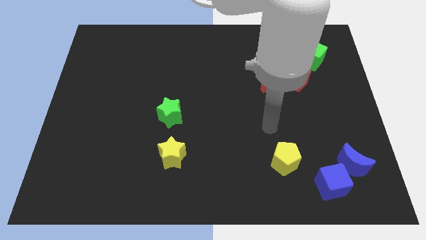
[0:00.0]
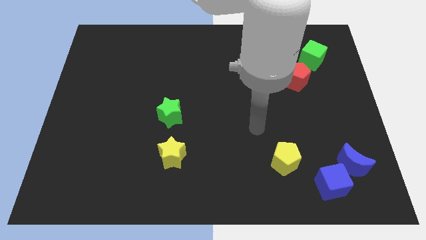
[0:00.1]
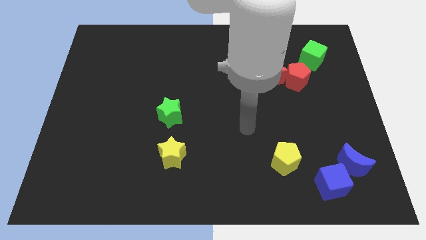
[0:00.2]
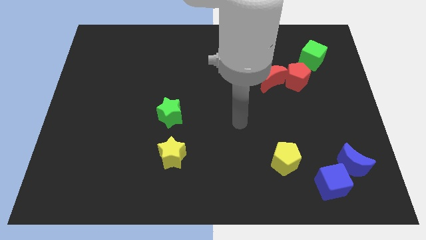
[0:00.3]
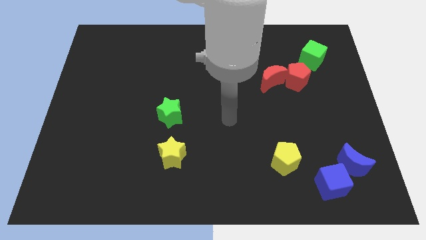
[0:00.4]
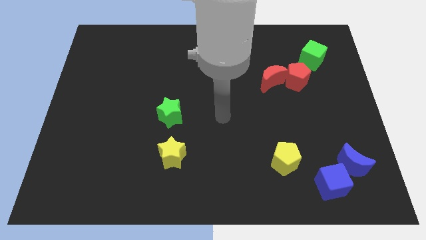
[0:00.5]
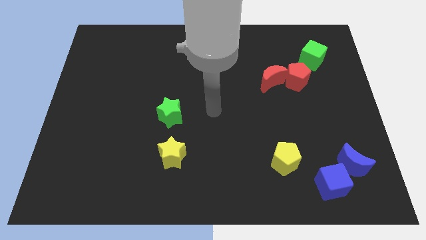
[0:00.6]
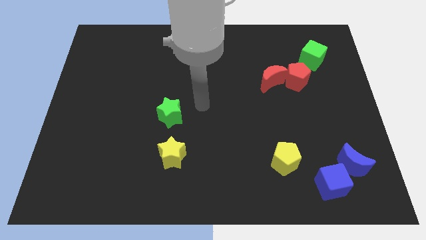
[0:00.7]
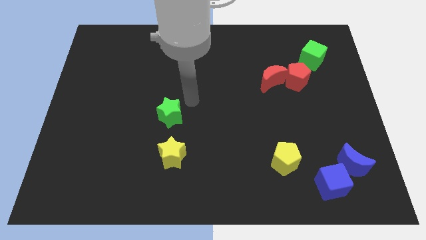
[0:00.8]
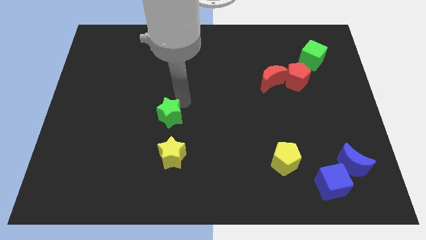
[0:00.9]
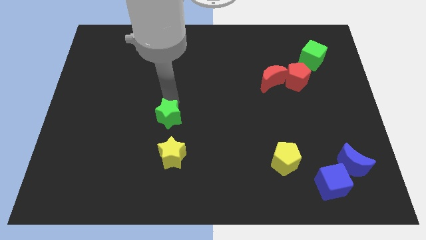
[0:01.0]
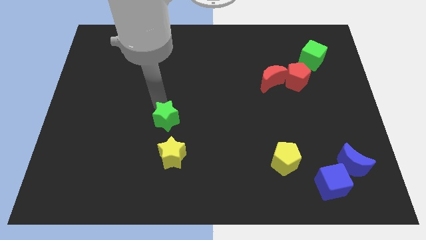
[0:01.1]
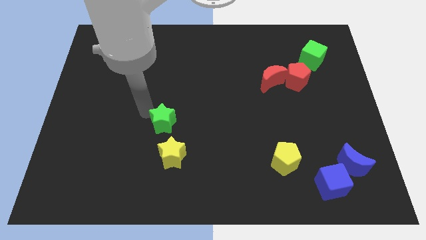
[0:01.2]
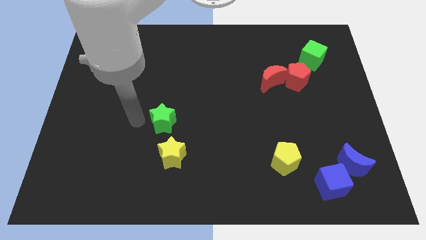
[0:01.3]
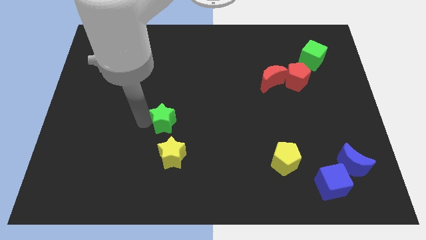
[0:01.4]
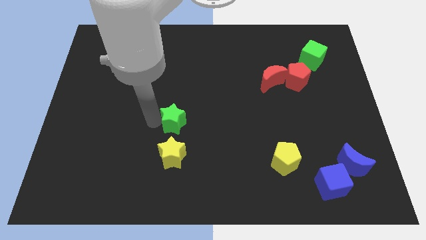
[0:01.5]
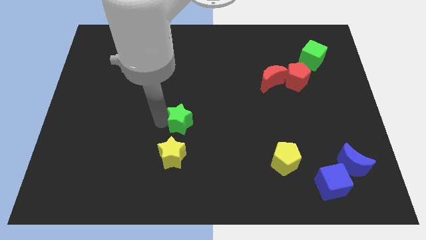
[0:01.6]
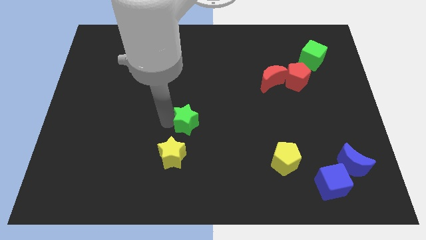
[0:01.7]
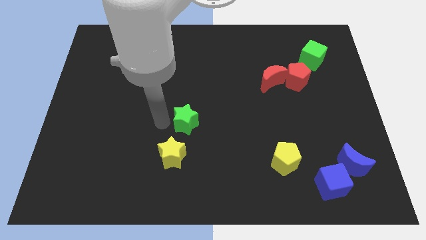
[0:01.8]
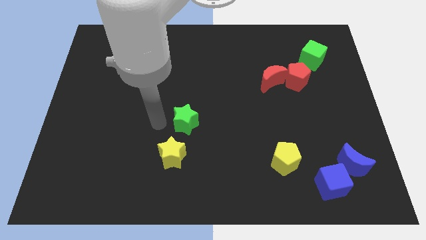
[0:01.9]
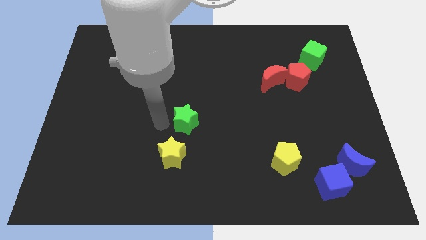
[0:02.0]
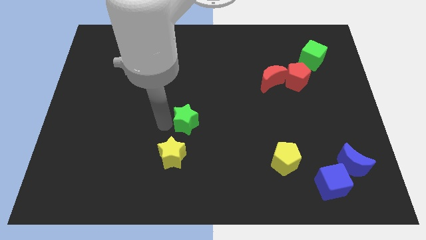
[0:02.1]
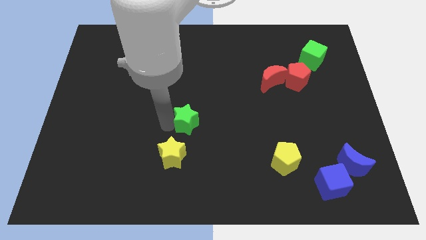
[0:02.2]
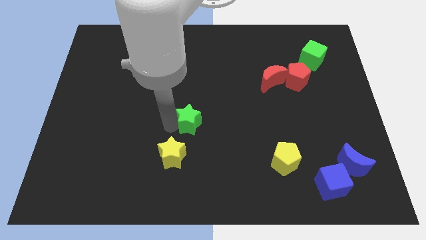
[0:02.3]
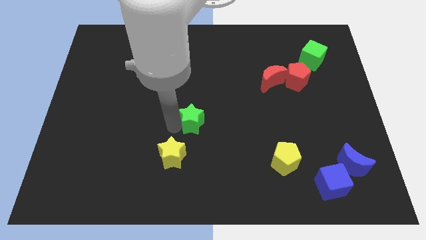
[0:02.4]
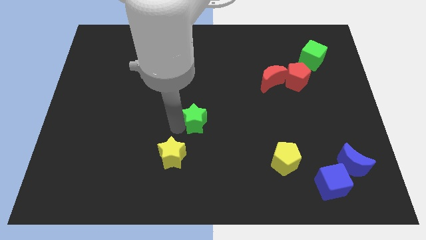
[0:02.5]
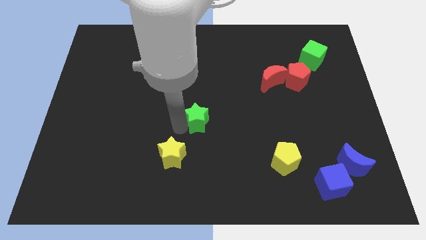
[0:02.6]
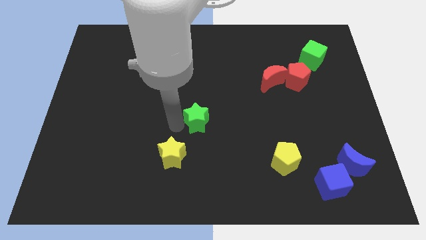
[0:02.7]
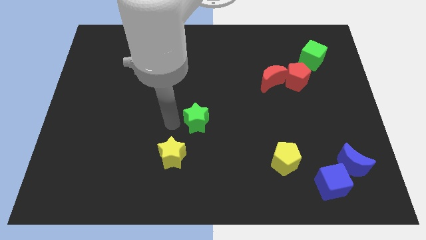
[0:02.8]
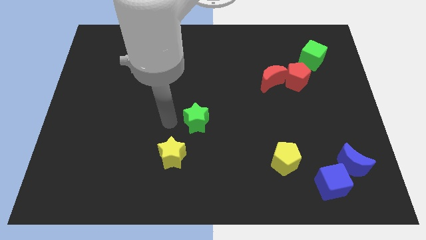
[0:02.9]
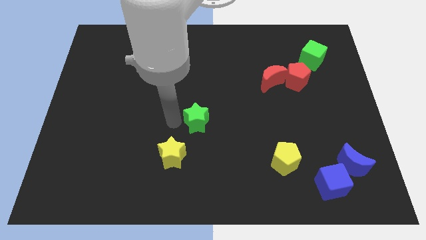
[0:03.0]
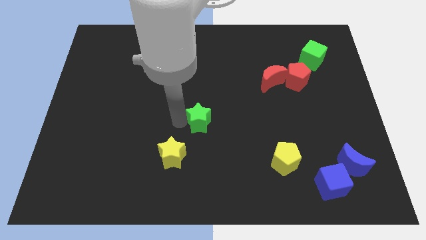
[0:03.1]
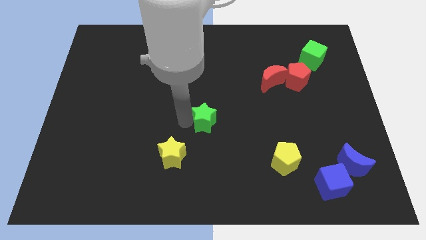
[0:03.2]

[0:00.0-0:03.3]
slightly move the green star right

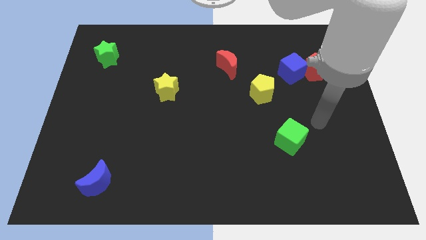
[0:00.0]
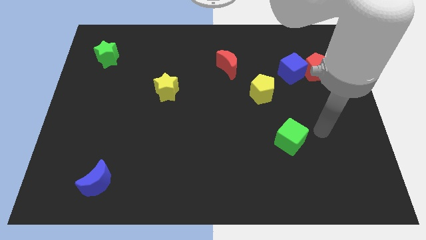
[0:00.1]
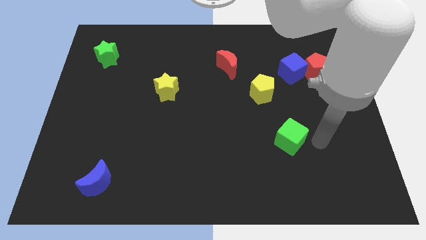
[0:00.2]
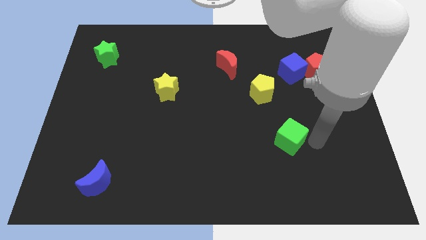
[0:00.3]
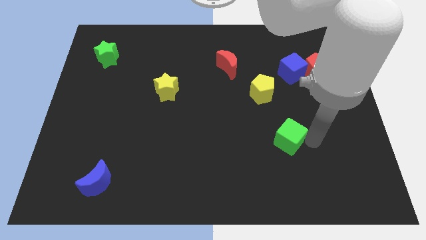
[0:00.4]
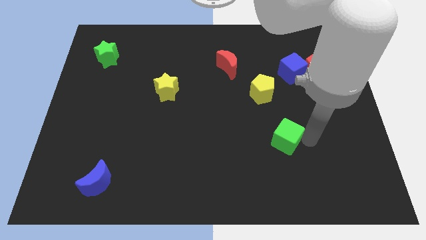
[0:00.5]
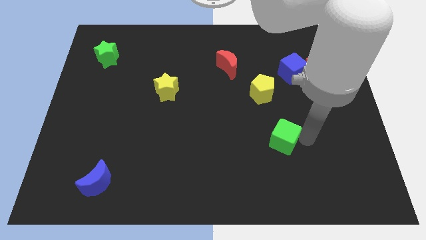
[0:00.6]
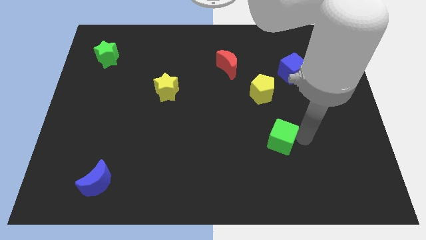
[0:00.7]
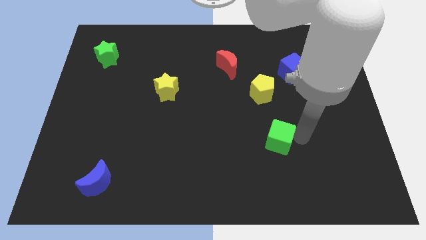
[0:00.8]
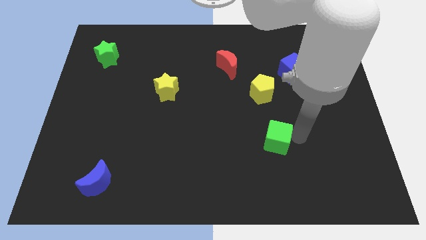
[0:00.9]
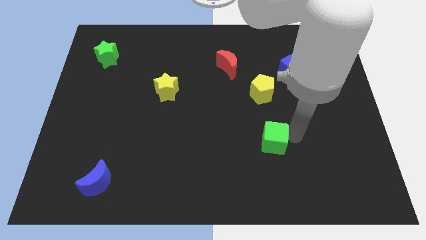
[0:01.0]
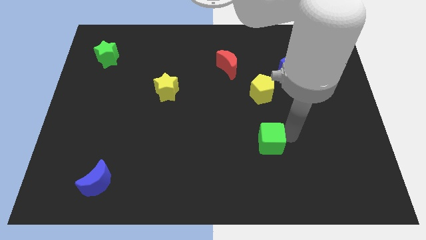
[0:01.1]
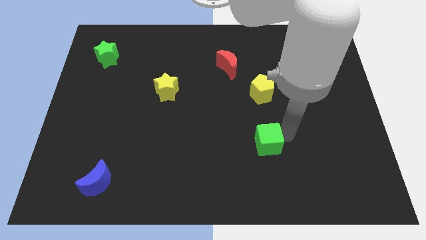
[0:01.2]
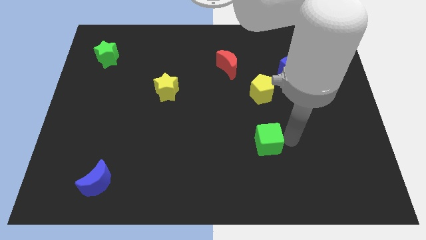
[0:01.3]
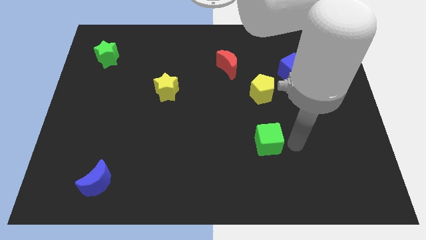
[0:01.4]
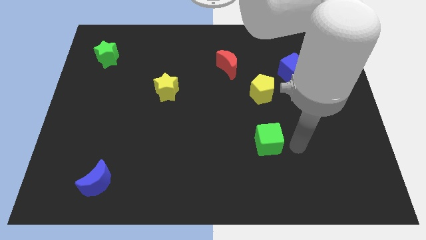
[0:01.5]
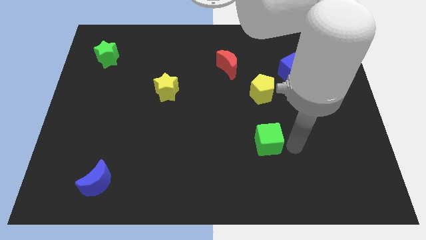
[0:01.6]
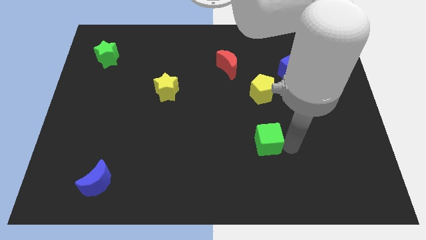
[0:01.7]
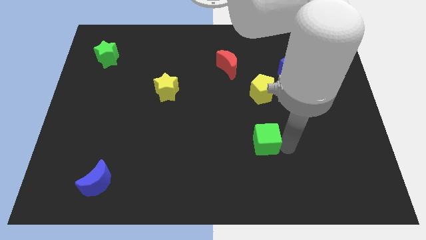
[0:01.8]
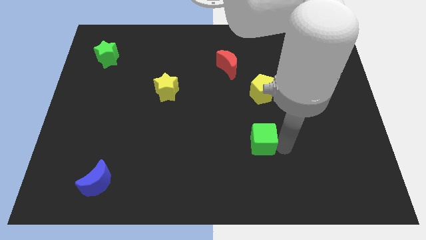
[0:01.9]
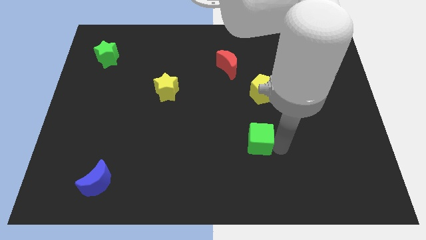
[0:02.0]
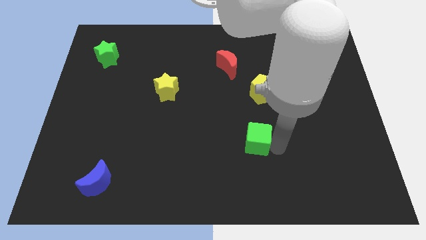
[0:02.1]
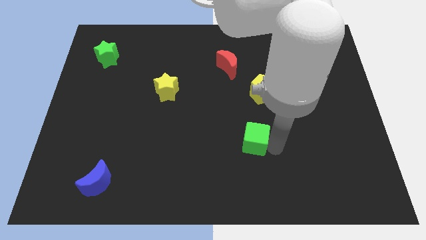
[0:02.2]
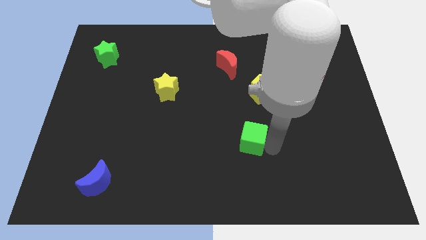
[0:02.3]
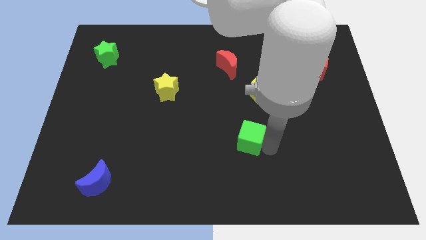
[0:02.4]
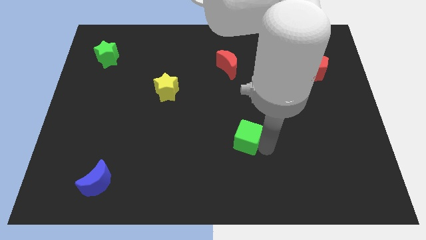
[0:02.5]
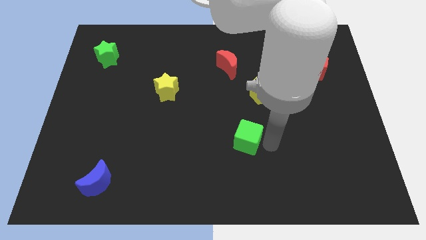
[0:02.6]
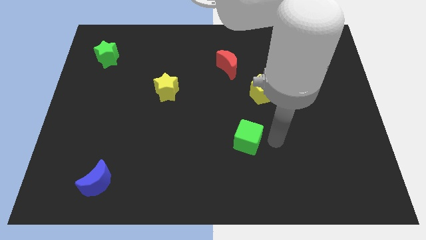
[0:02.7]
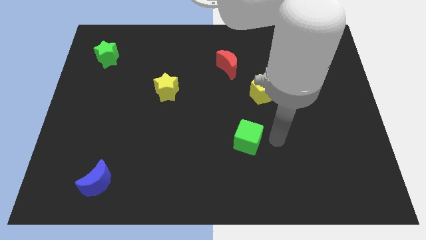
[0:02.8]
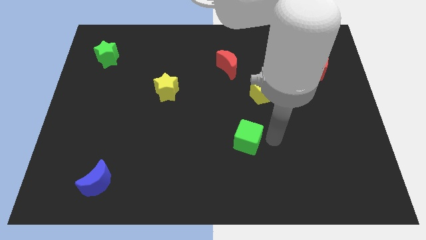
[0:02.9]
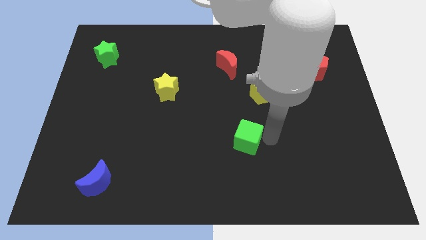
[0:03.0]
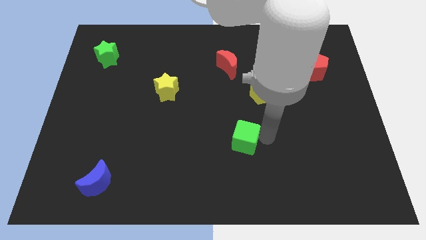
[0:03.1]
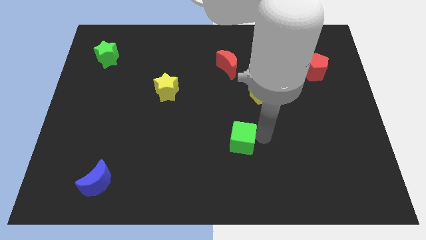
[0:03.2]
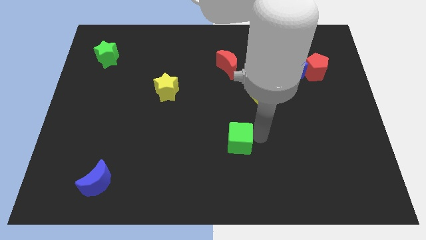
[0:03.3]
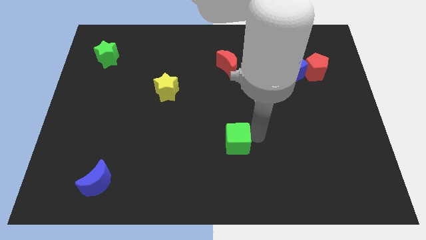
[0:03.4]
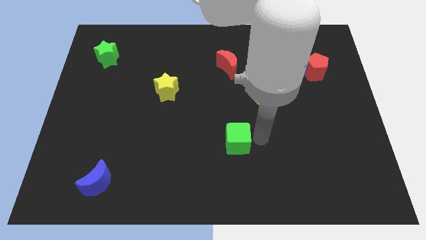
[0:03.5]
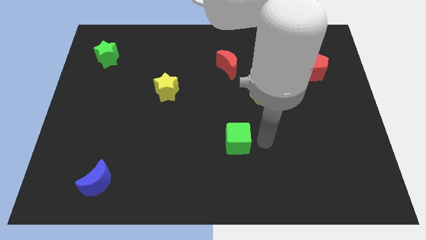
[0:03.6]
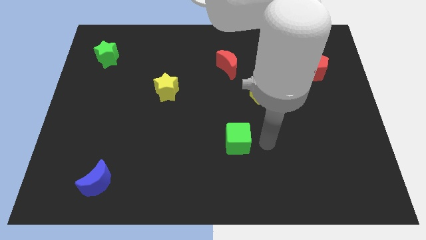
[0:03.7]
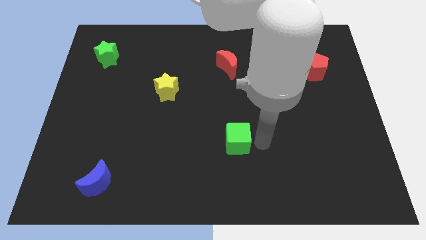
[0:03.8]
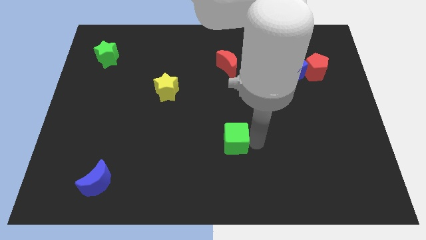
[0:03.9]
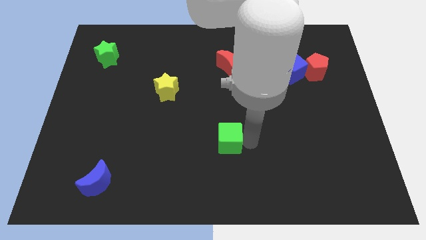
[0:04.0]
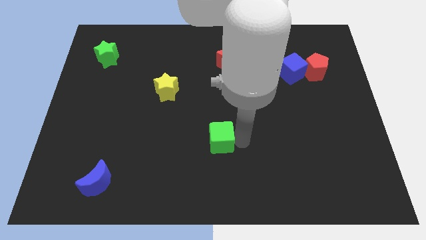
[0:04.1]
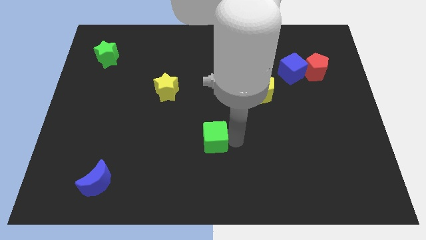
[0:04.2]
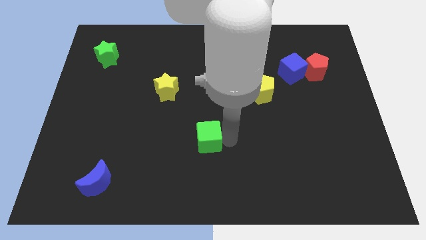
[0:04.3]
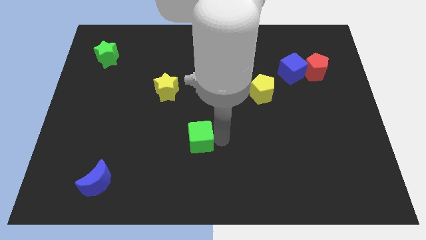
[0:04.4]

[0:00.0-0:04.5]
push the green cube left

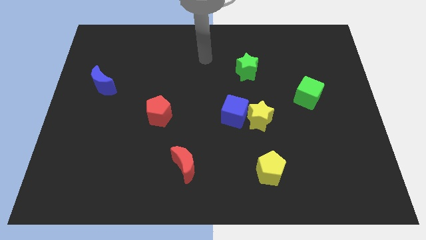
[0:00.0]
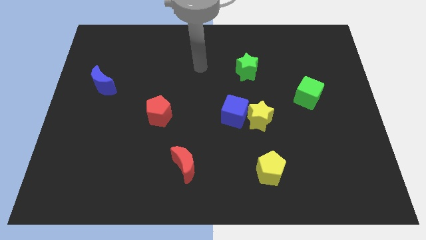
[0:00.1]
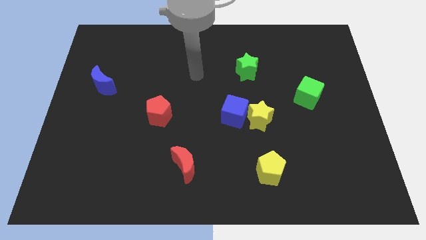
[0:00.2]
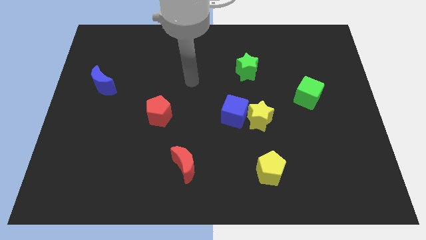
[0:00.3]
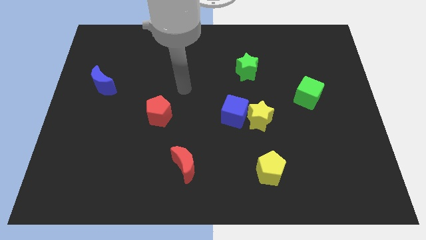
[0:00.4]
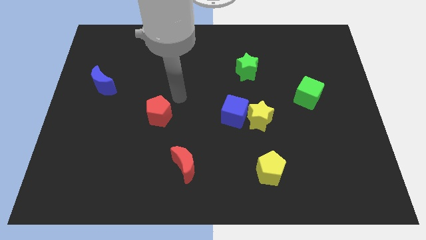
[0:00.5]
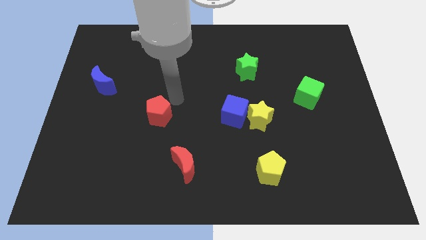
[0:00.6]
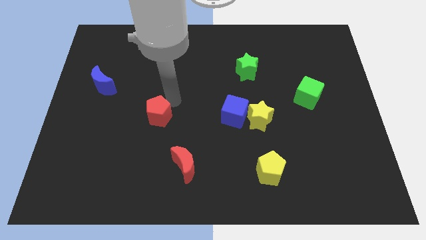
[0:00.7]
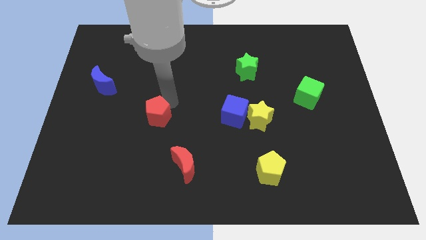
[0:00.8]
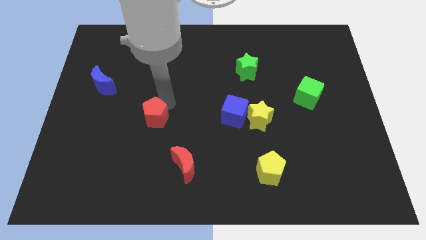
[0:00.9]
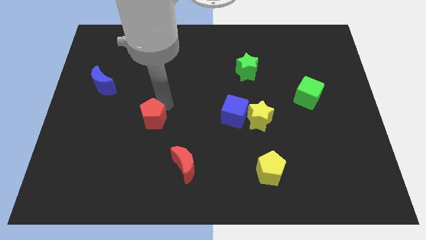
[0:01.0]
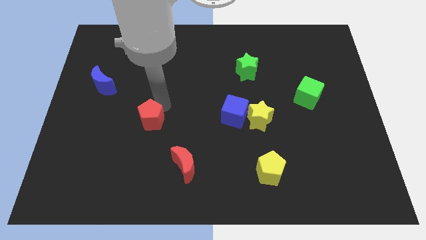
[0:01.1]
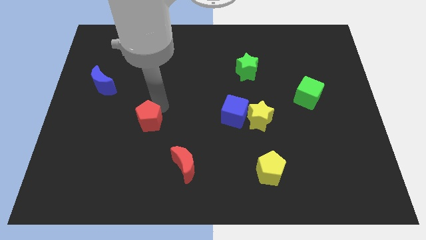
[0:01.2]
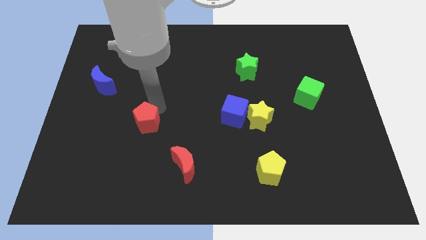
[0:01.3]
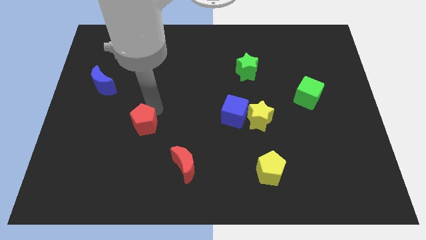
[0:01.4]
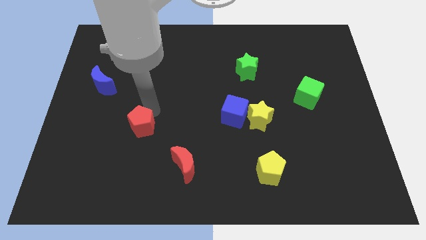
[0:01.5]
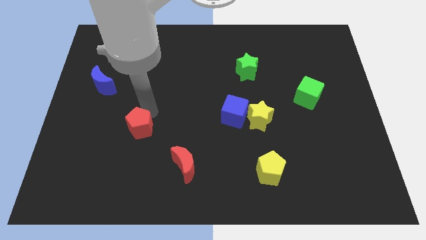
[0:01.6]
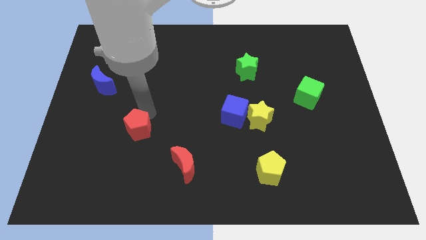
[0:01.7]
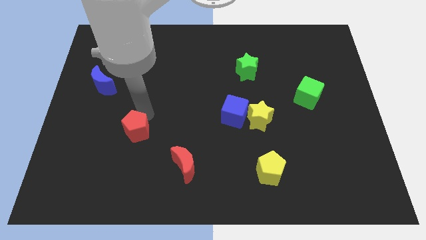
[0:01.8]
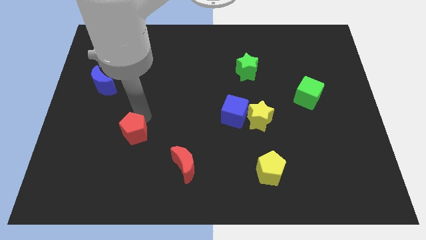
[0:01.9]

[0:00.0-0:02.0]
slightly slide the red pentagon down and left
